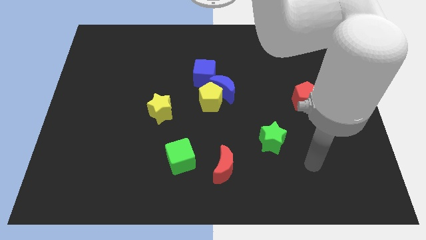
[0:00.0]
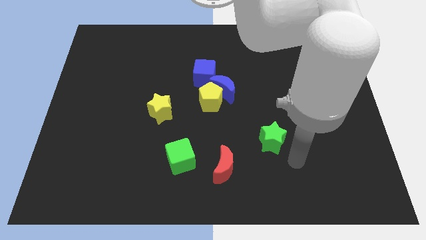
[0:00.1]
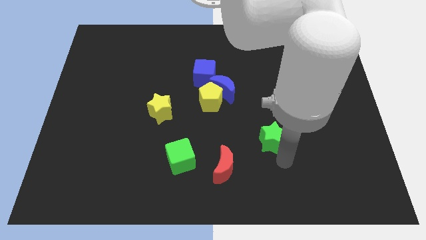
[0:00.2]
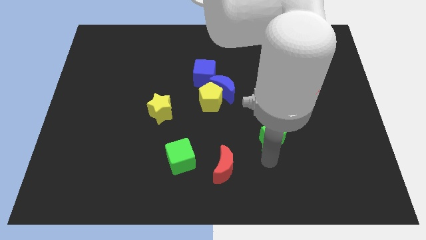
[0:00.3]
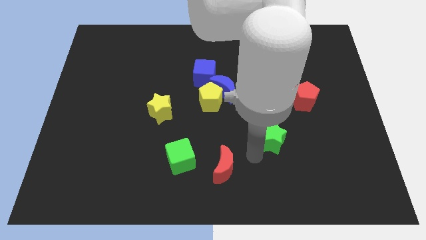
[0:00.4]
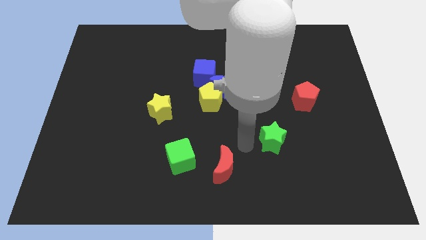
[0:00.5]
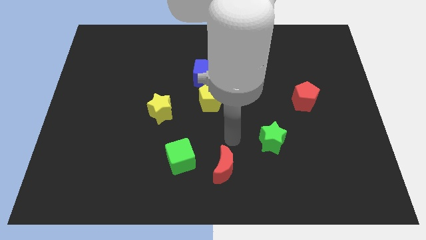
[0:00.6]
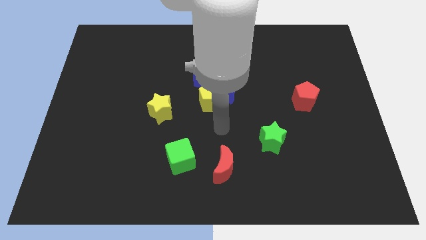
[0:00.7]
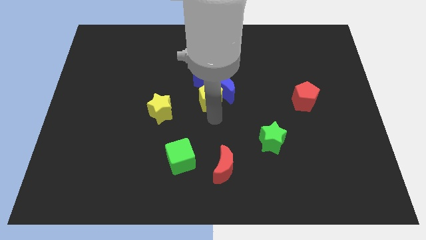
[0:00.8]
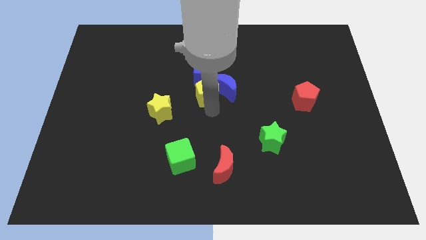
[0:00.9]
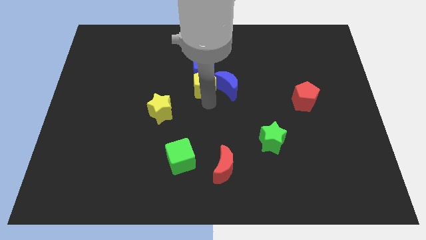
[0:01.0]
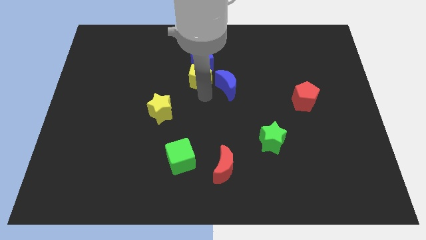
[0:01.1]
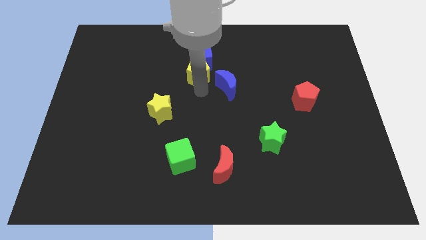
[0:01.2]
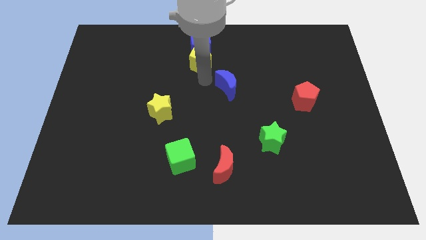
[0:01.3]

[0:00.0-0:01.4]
pull the blue moon apart from the yellow pentagon and blue cube

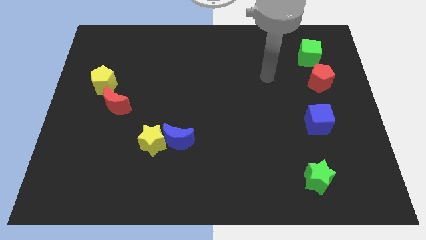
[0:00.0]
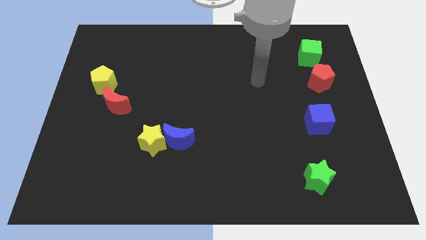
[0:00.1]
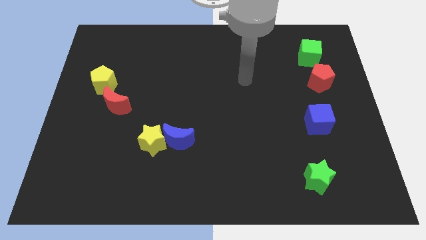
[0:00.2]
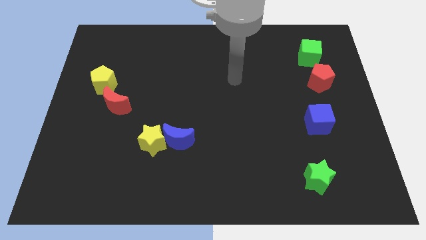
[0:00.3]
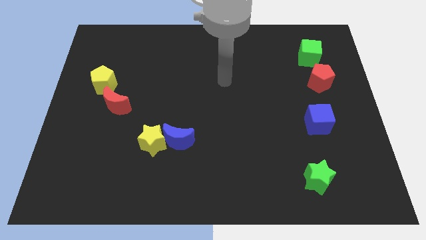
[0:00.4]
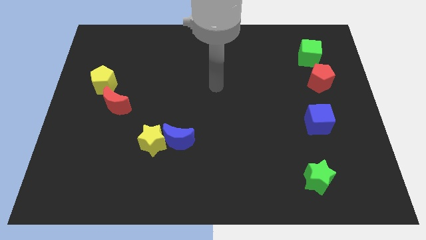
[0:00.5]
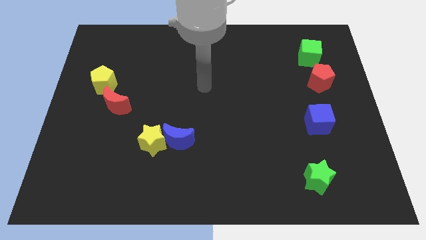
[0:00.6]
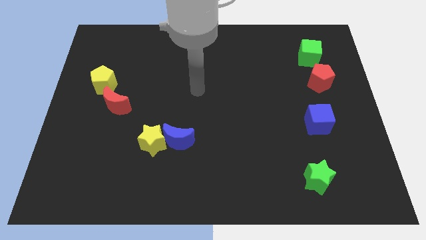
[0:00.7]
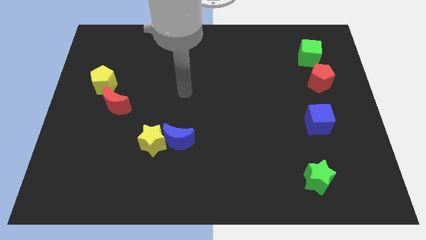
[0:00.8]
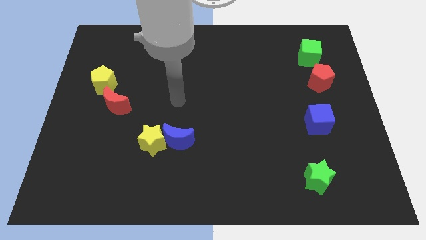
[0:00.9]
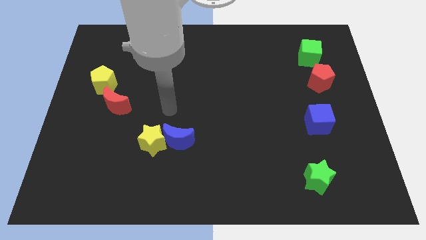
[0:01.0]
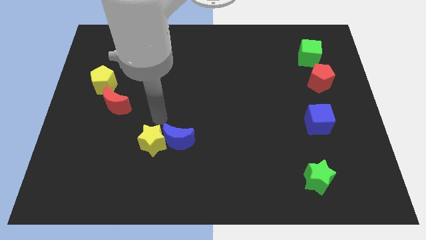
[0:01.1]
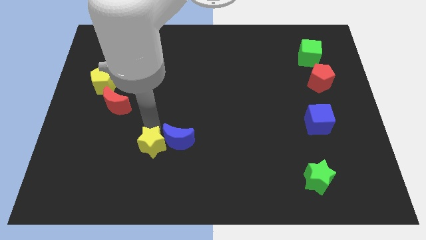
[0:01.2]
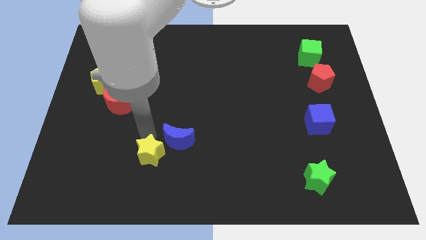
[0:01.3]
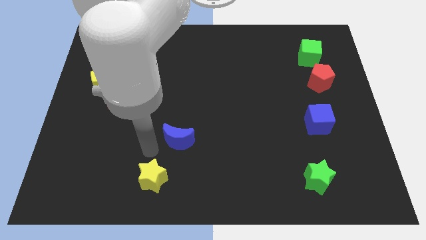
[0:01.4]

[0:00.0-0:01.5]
pull the blue moon apart from the yellow star

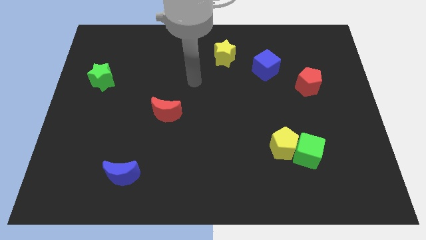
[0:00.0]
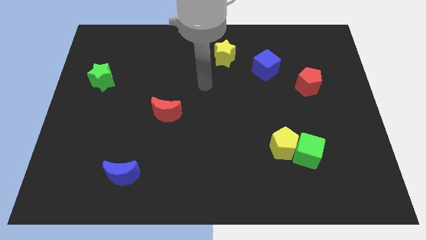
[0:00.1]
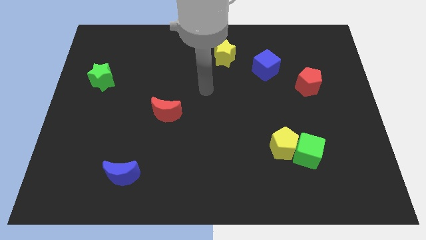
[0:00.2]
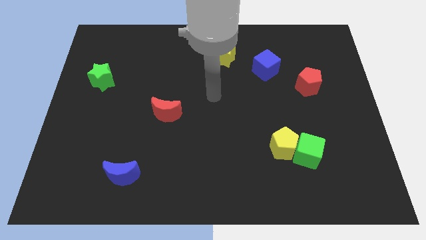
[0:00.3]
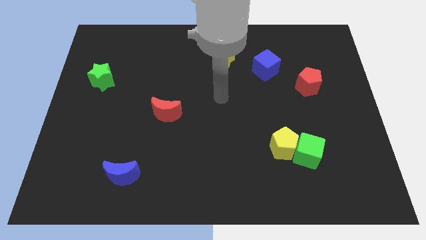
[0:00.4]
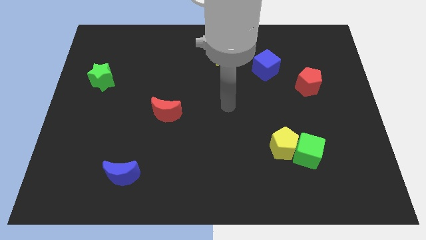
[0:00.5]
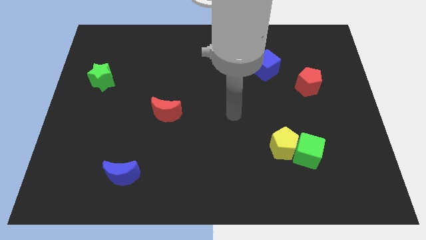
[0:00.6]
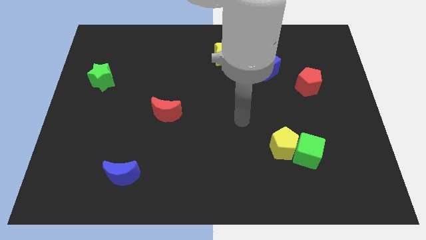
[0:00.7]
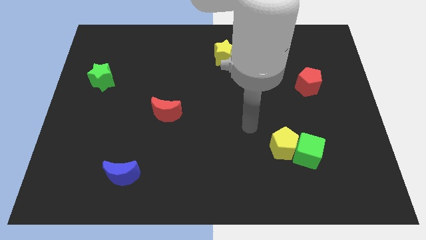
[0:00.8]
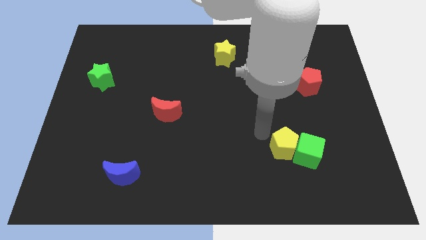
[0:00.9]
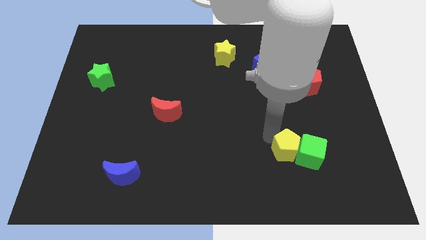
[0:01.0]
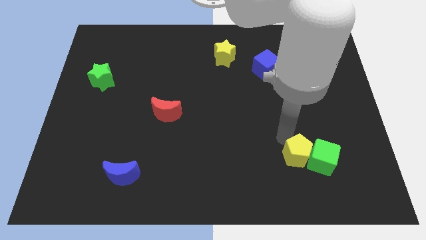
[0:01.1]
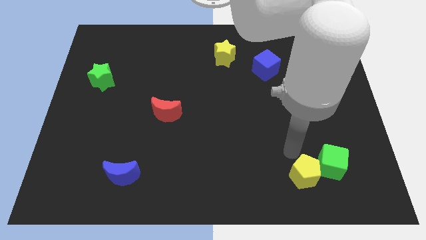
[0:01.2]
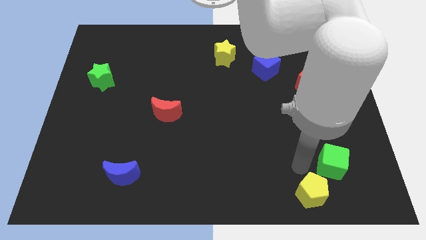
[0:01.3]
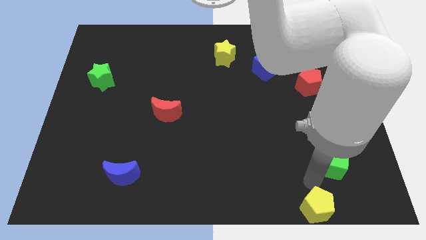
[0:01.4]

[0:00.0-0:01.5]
pull the green cube apart from the yellow pentagon

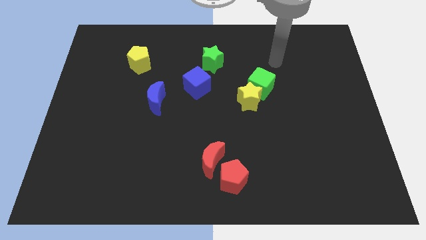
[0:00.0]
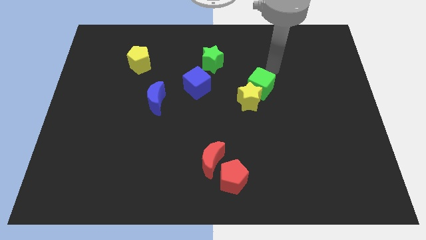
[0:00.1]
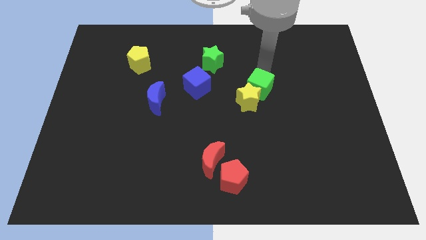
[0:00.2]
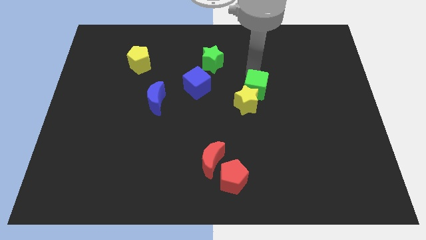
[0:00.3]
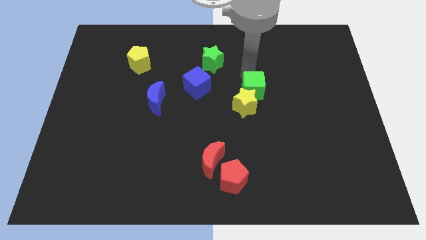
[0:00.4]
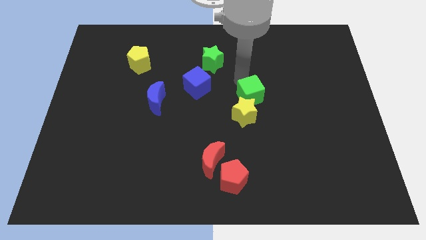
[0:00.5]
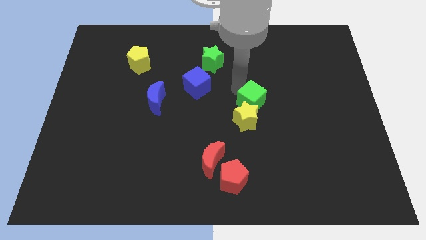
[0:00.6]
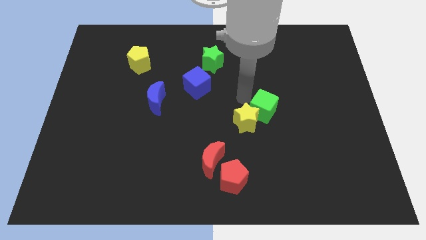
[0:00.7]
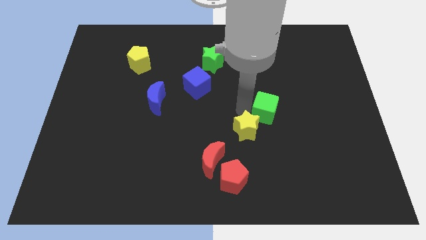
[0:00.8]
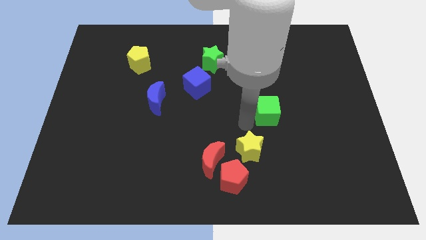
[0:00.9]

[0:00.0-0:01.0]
pull the green cube apart from the yellow star

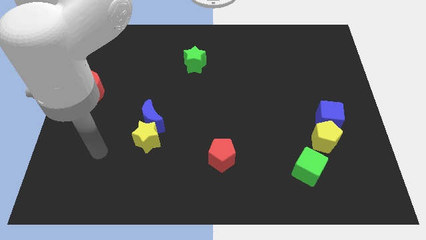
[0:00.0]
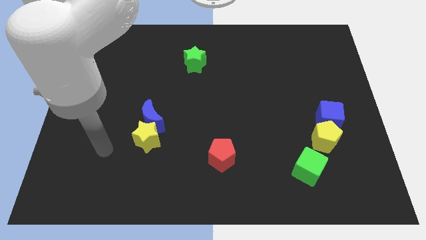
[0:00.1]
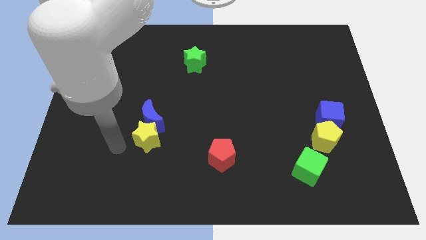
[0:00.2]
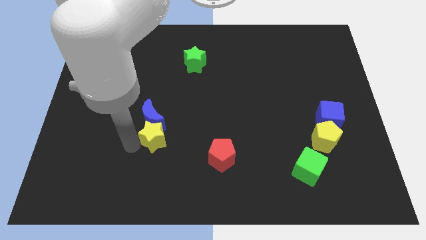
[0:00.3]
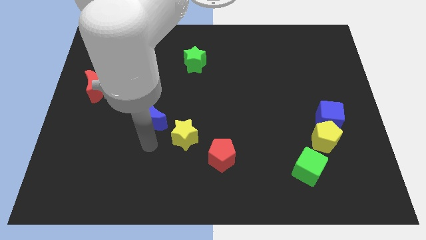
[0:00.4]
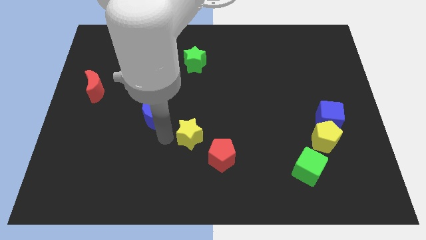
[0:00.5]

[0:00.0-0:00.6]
separate the blue moon from the yellow star

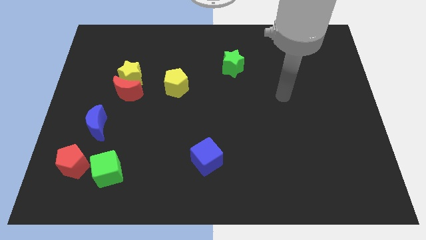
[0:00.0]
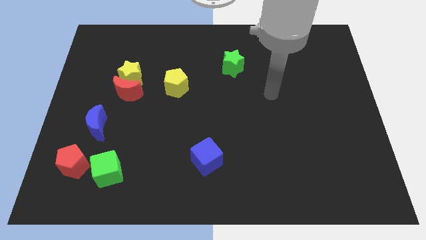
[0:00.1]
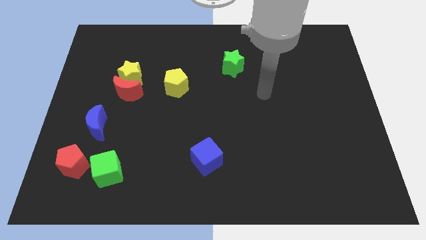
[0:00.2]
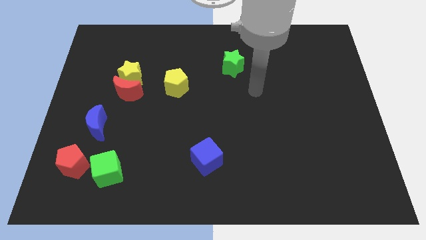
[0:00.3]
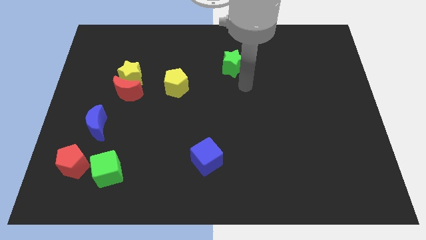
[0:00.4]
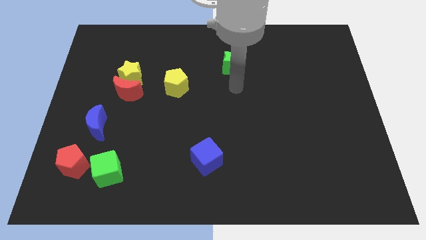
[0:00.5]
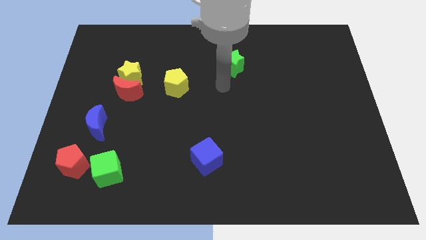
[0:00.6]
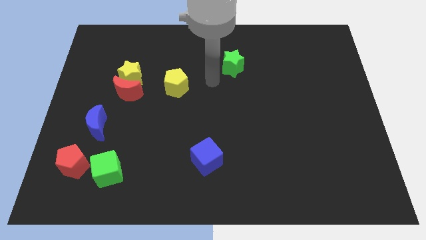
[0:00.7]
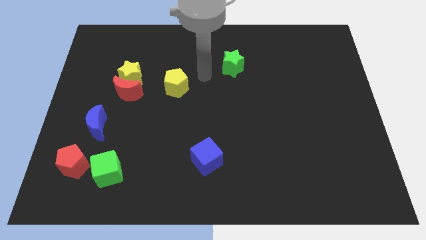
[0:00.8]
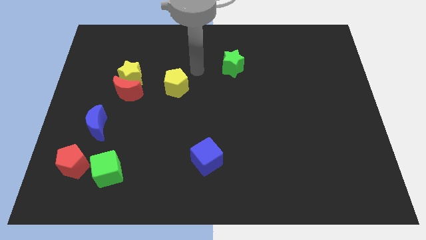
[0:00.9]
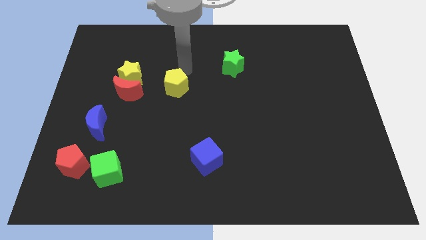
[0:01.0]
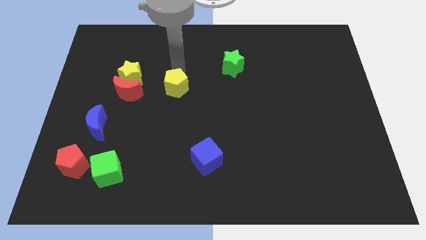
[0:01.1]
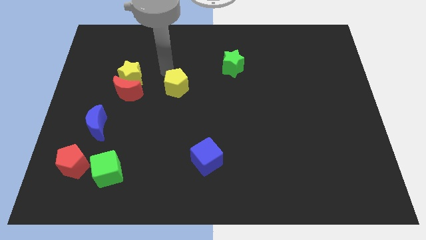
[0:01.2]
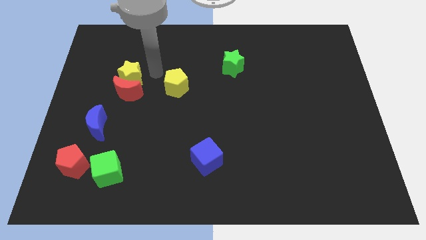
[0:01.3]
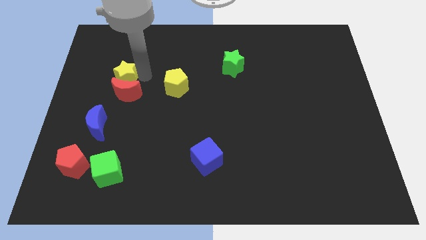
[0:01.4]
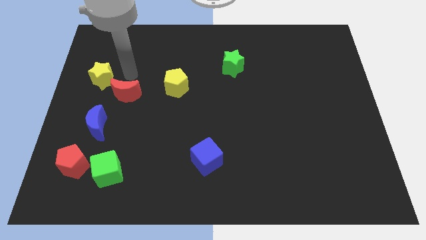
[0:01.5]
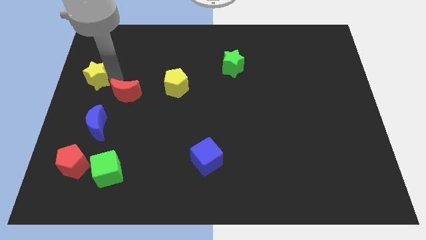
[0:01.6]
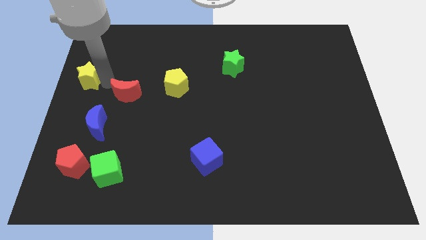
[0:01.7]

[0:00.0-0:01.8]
move the red moon away from the yellow star

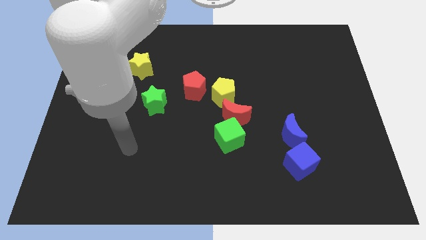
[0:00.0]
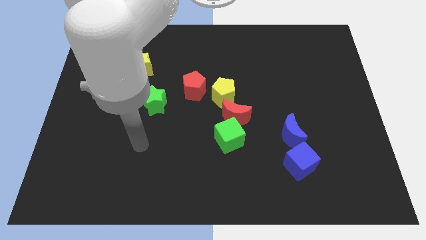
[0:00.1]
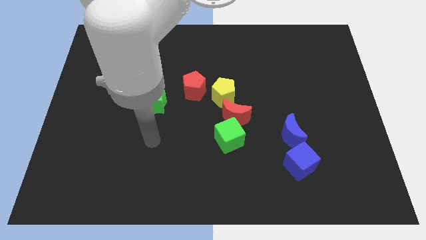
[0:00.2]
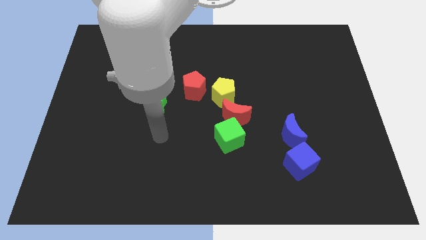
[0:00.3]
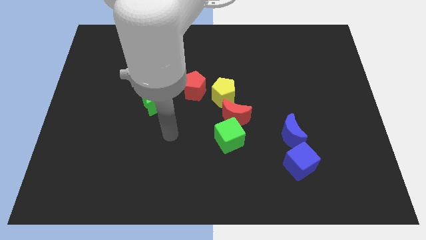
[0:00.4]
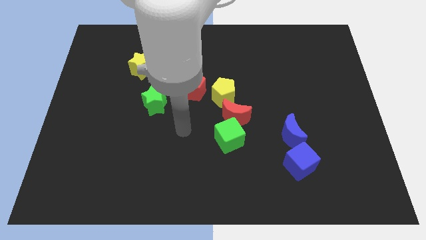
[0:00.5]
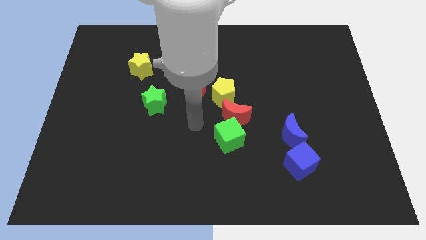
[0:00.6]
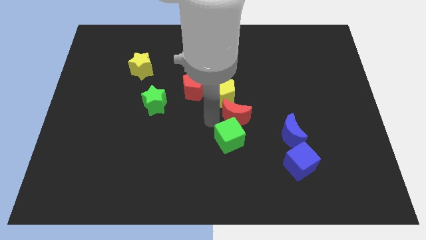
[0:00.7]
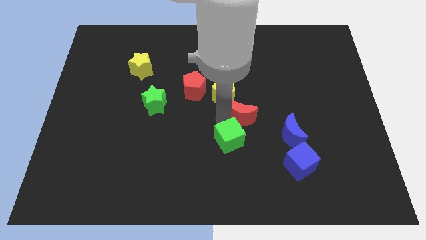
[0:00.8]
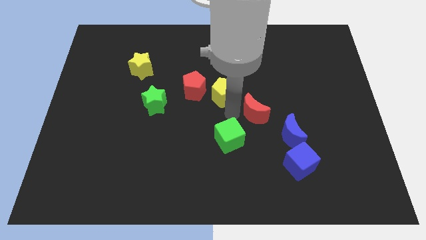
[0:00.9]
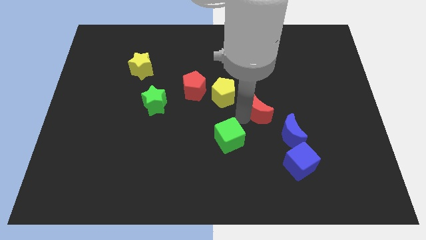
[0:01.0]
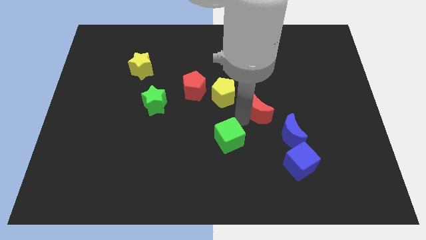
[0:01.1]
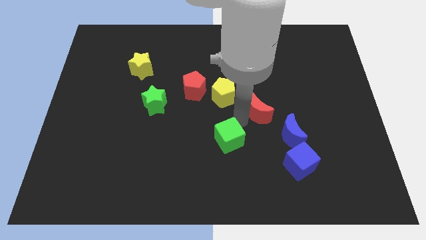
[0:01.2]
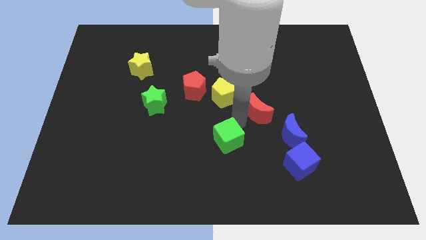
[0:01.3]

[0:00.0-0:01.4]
pull the green cube apart from the red moon
